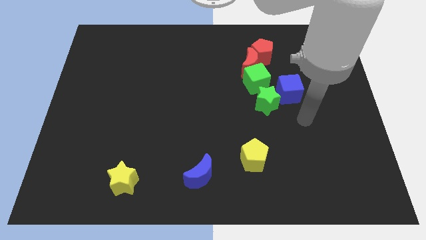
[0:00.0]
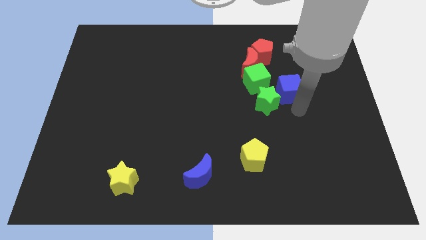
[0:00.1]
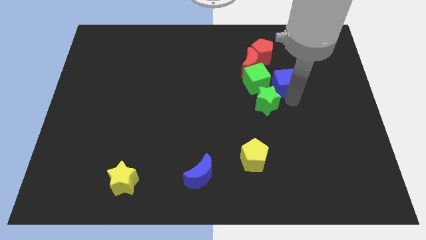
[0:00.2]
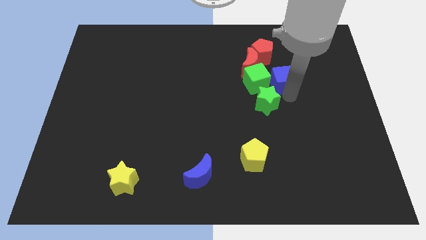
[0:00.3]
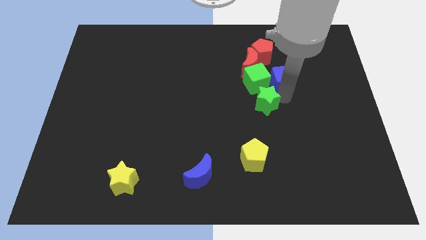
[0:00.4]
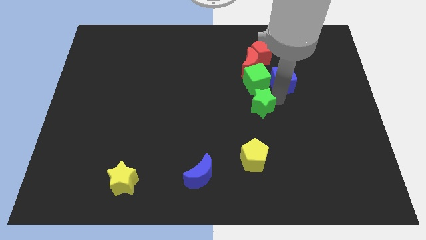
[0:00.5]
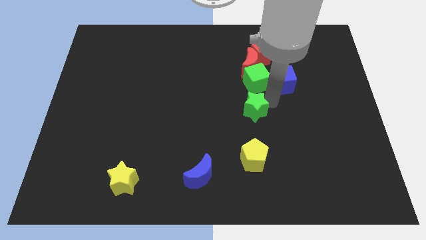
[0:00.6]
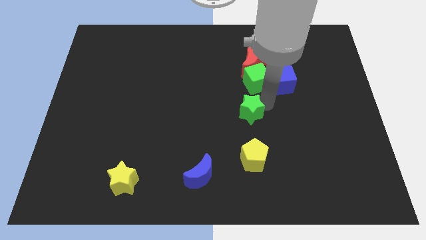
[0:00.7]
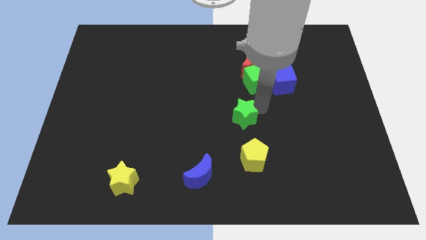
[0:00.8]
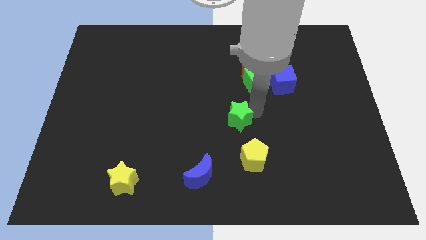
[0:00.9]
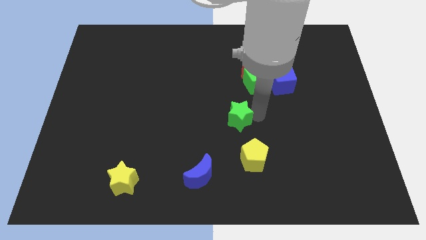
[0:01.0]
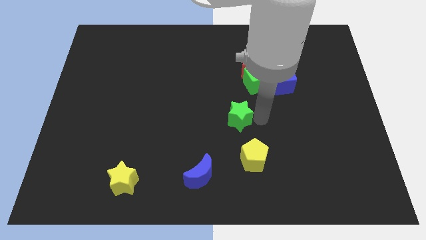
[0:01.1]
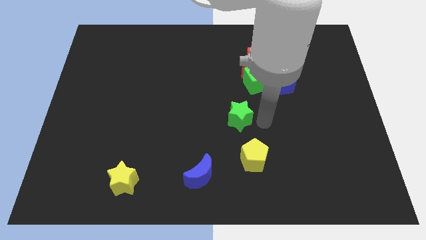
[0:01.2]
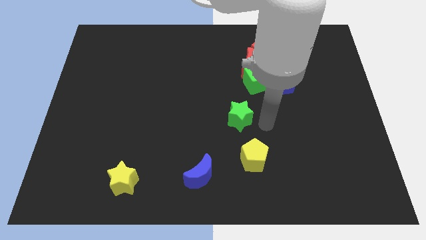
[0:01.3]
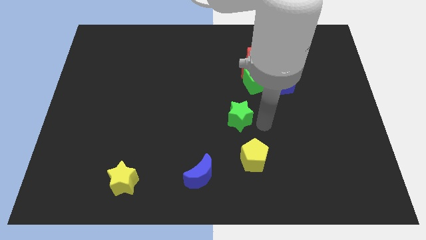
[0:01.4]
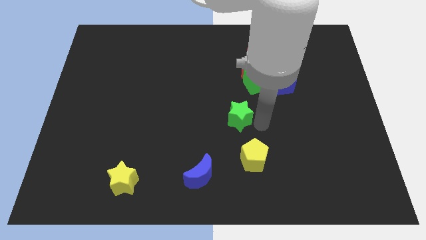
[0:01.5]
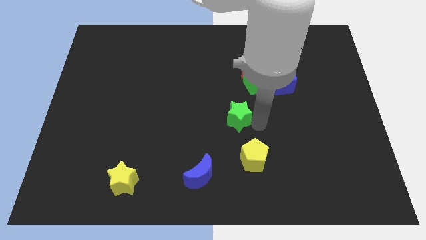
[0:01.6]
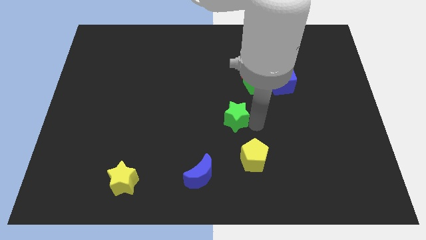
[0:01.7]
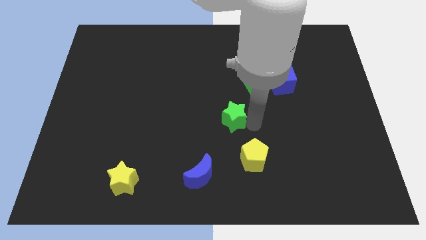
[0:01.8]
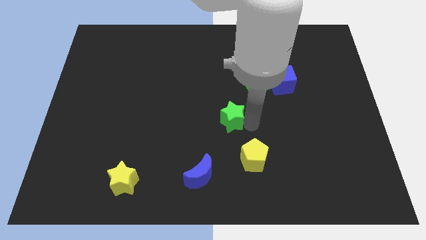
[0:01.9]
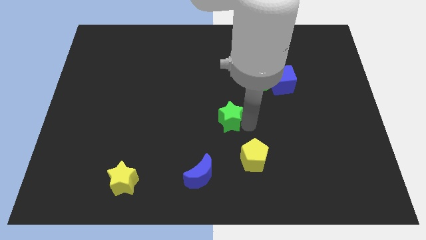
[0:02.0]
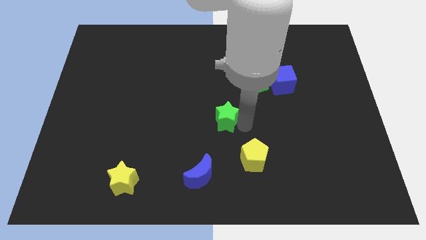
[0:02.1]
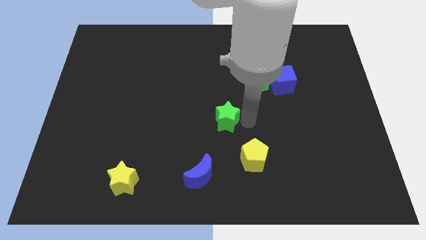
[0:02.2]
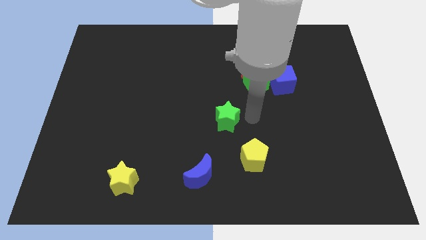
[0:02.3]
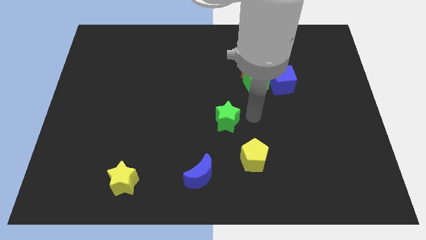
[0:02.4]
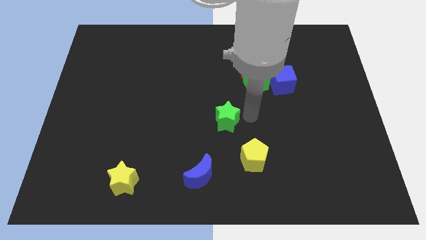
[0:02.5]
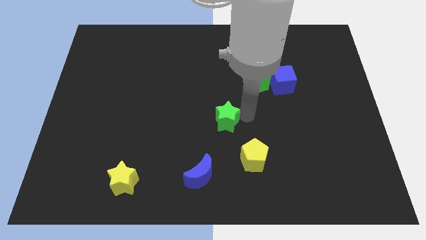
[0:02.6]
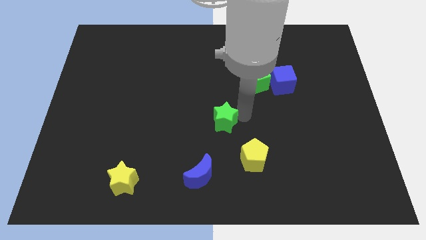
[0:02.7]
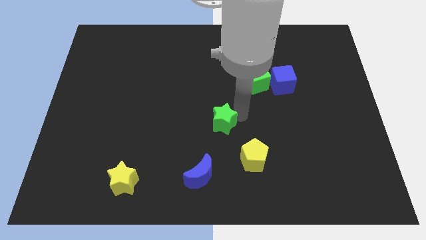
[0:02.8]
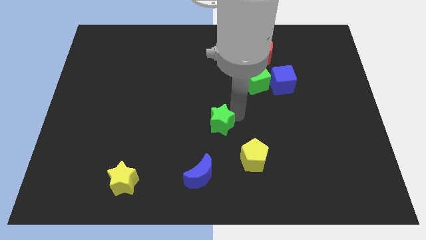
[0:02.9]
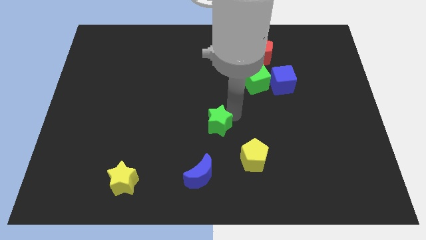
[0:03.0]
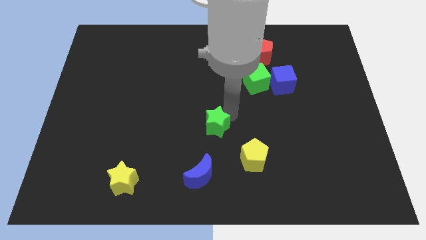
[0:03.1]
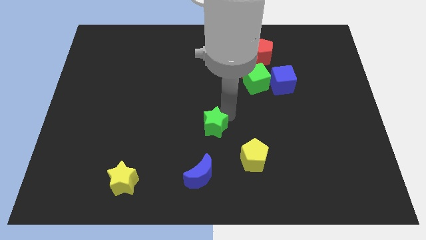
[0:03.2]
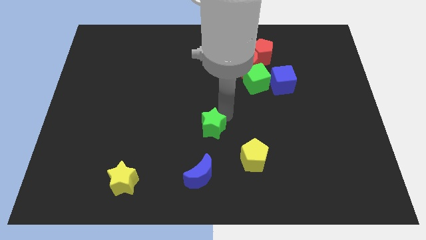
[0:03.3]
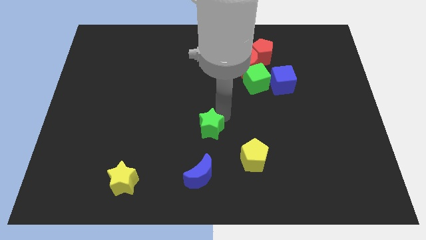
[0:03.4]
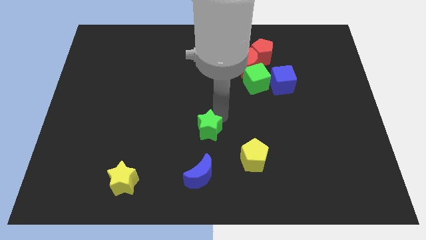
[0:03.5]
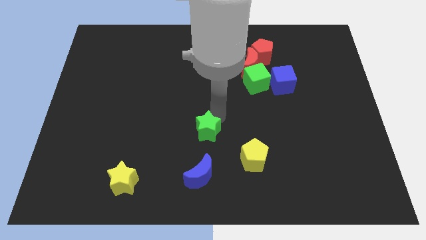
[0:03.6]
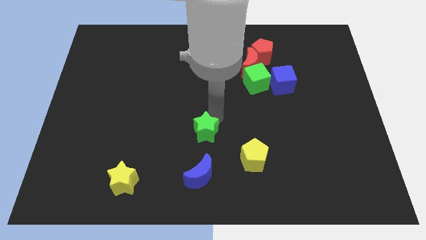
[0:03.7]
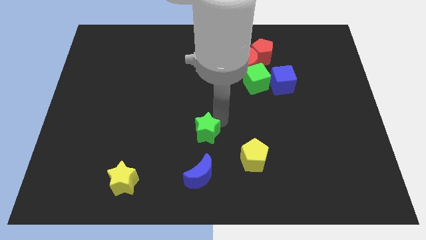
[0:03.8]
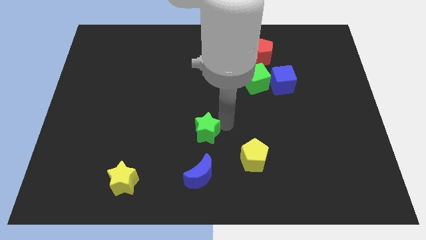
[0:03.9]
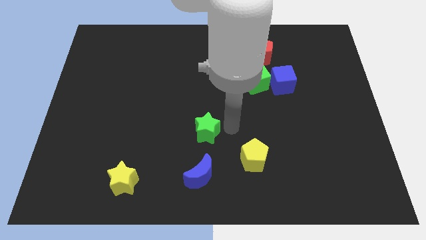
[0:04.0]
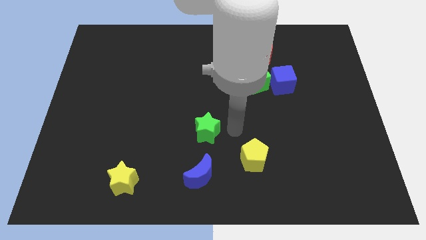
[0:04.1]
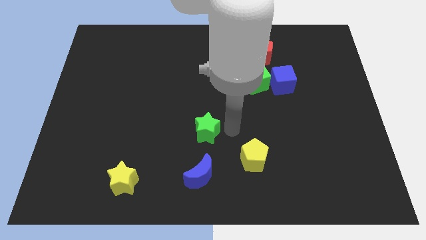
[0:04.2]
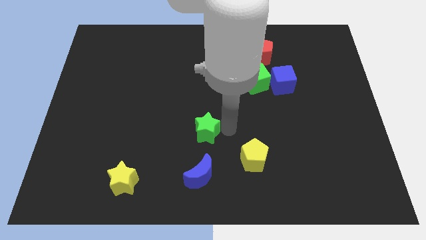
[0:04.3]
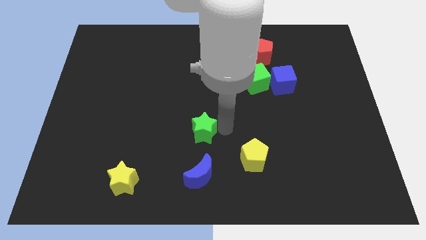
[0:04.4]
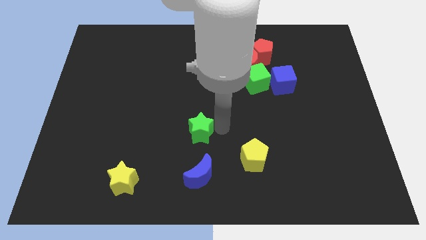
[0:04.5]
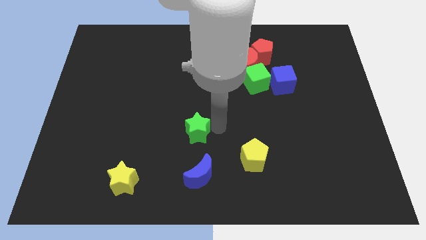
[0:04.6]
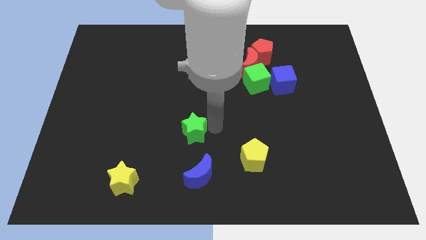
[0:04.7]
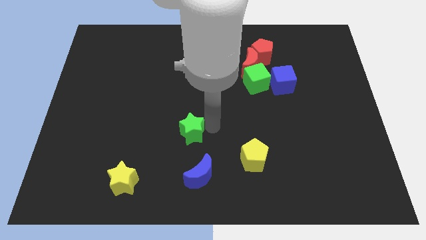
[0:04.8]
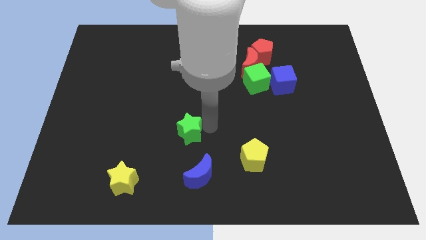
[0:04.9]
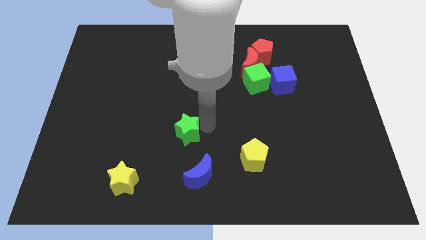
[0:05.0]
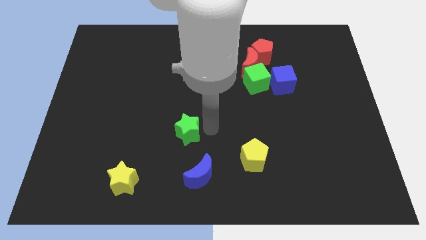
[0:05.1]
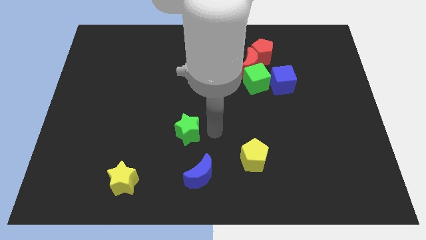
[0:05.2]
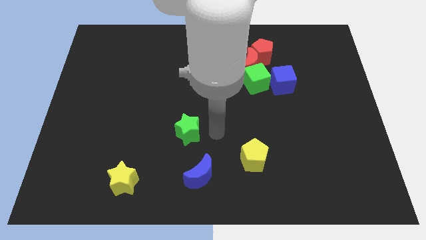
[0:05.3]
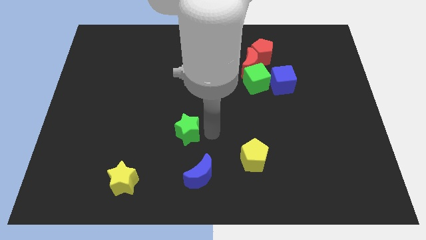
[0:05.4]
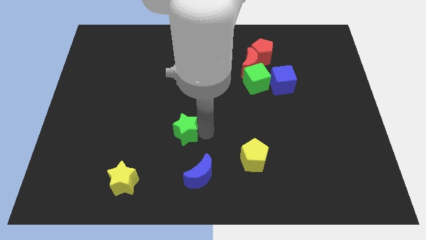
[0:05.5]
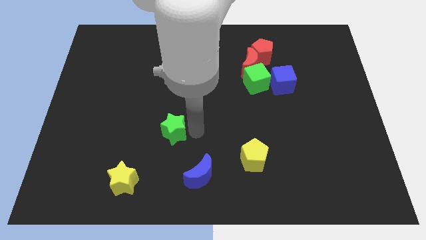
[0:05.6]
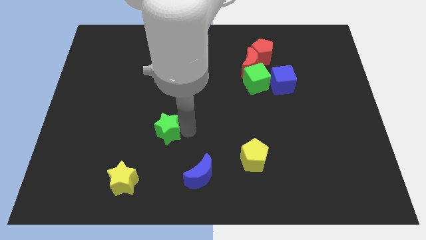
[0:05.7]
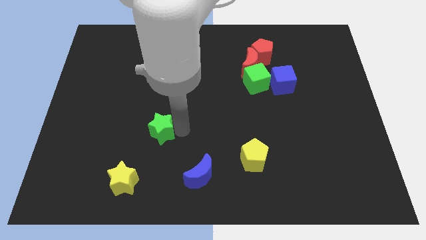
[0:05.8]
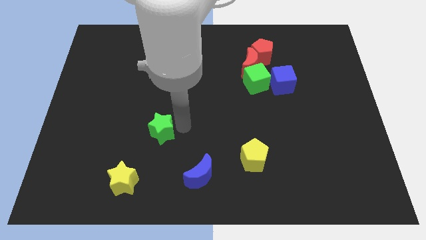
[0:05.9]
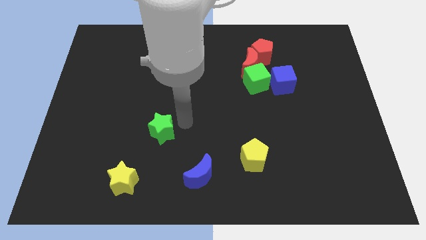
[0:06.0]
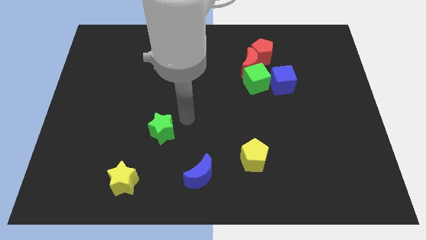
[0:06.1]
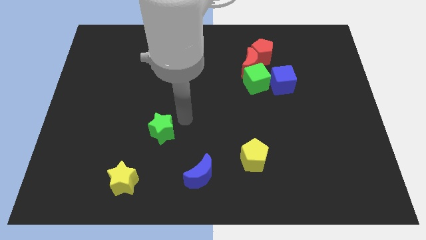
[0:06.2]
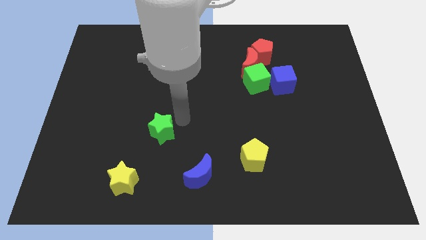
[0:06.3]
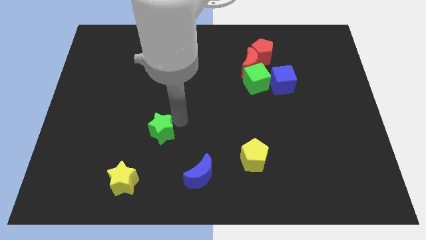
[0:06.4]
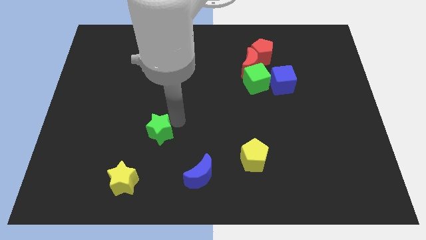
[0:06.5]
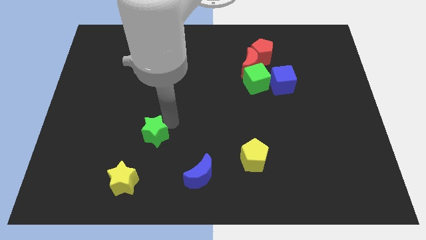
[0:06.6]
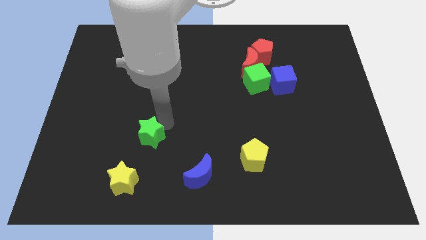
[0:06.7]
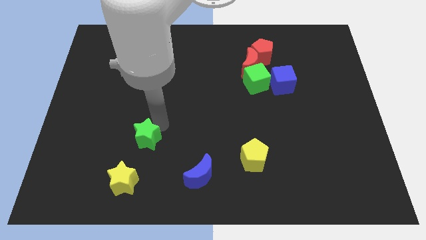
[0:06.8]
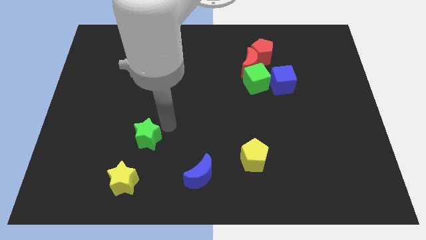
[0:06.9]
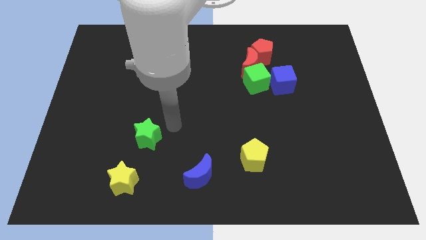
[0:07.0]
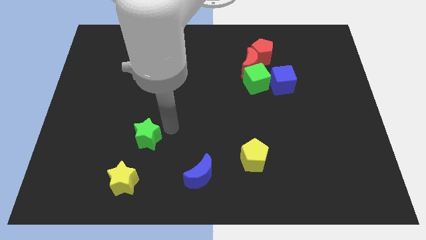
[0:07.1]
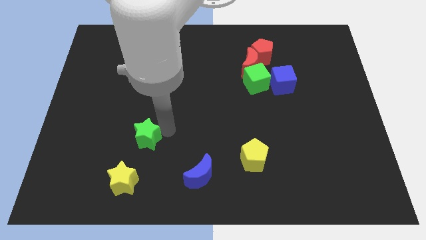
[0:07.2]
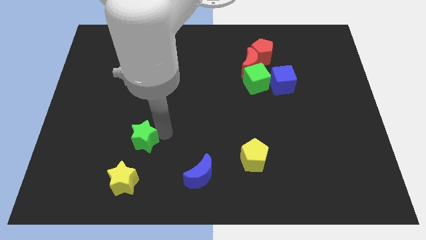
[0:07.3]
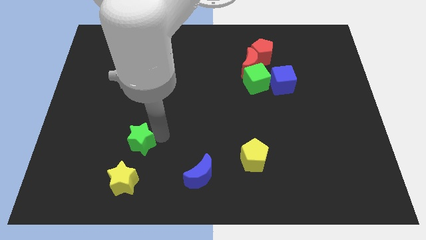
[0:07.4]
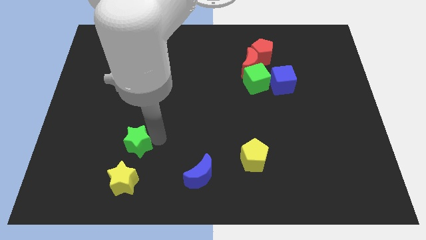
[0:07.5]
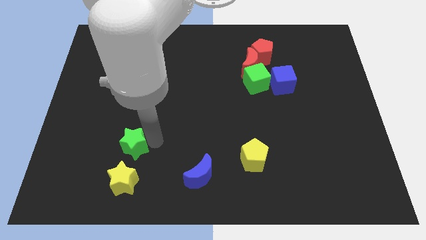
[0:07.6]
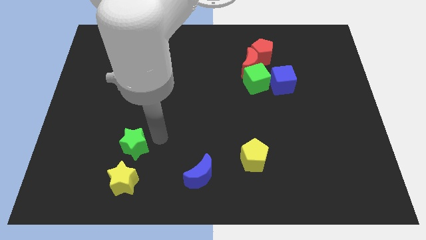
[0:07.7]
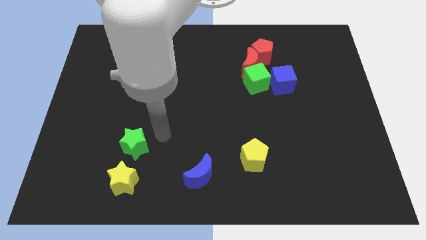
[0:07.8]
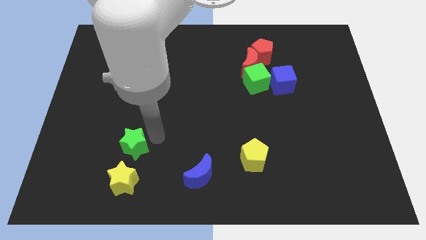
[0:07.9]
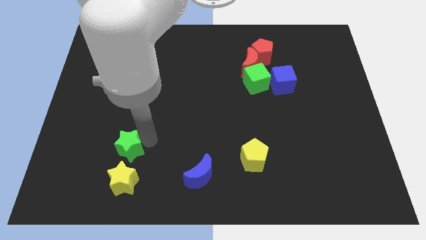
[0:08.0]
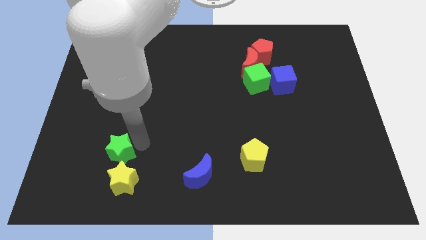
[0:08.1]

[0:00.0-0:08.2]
move the green star to the top left side of the yellow star
